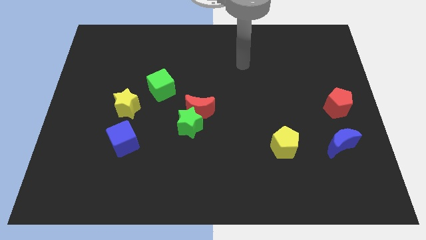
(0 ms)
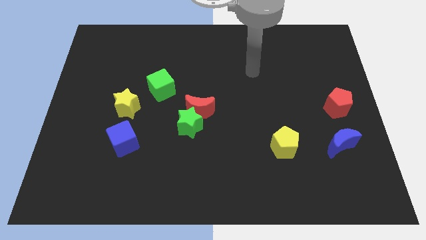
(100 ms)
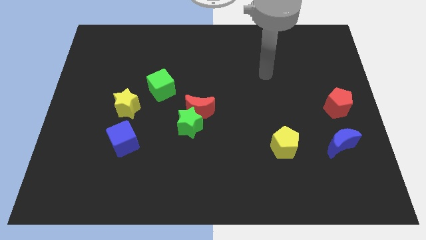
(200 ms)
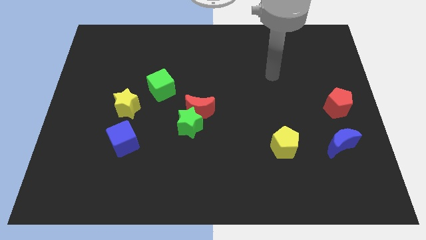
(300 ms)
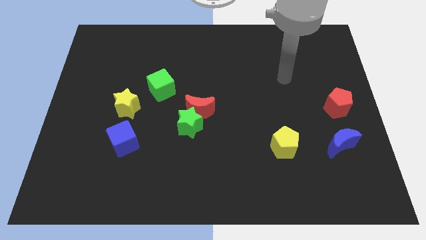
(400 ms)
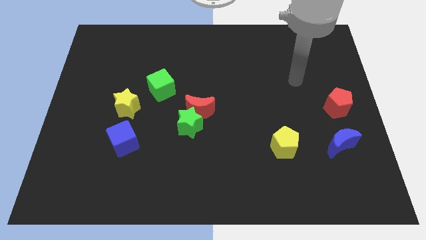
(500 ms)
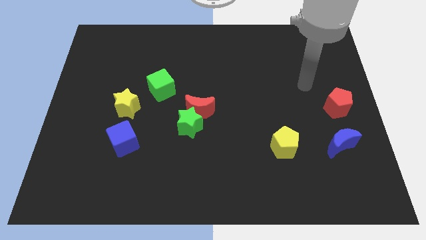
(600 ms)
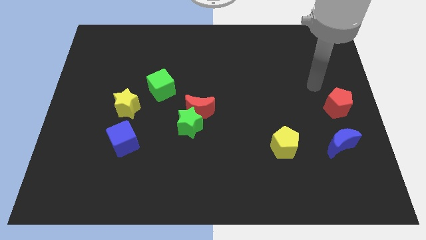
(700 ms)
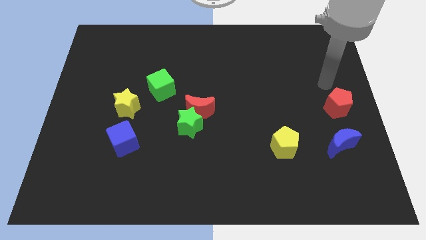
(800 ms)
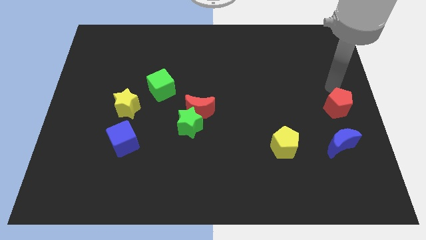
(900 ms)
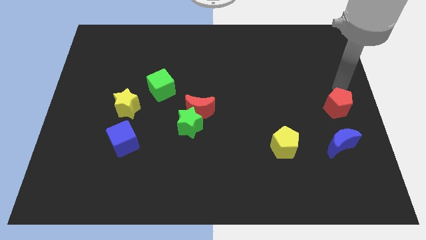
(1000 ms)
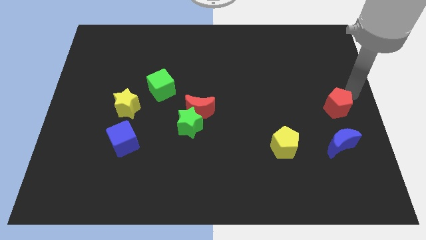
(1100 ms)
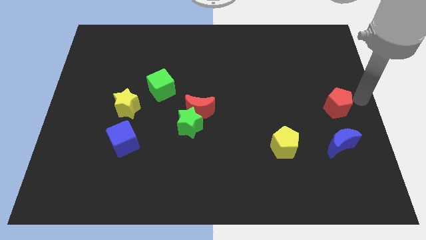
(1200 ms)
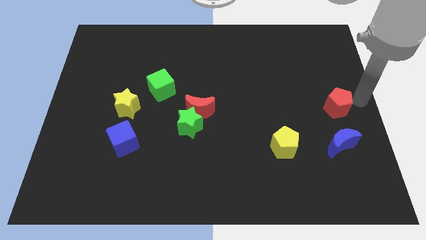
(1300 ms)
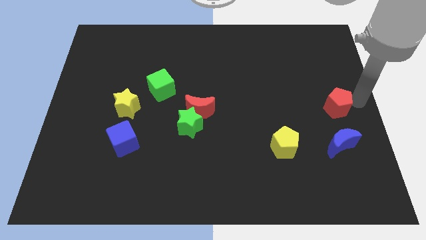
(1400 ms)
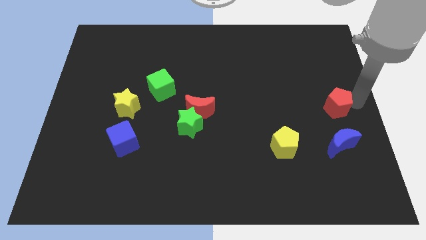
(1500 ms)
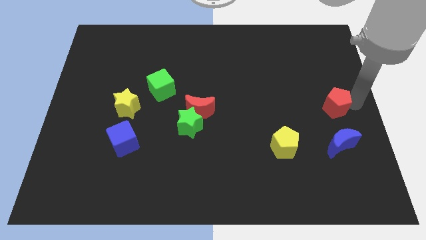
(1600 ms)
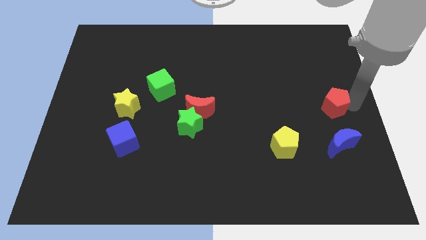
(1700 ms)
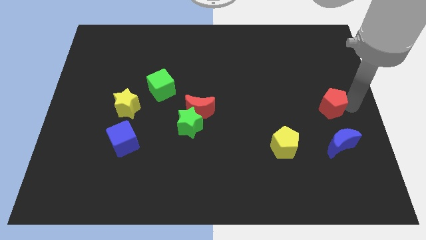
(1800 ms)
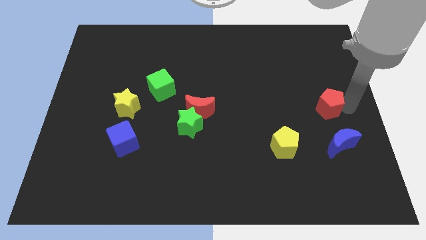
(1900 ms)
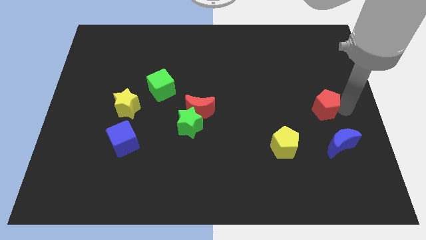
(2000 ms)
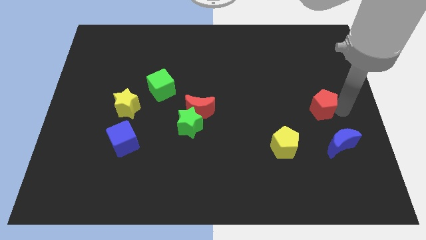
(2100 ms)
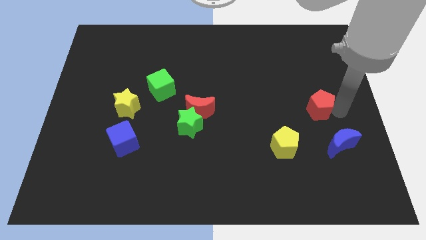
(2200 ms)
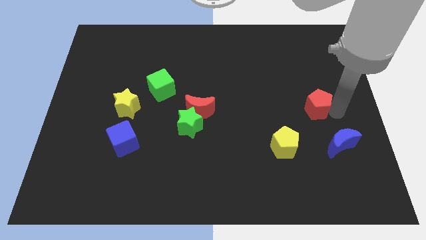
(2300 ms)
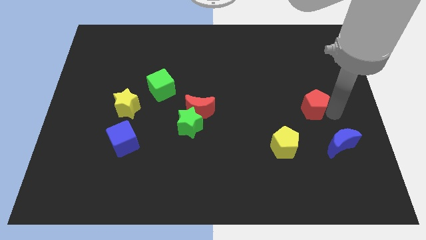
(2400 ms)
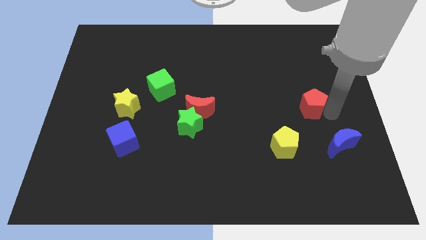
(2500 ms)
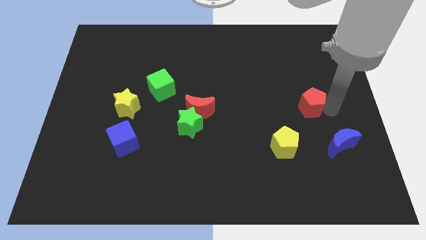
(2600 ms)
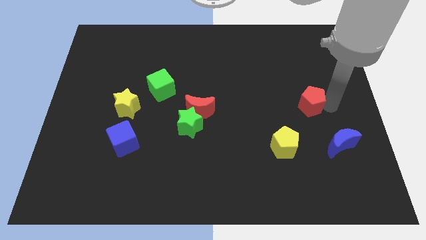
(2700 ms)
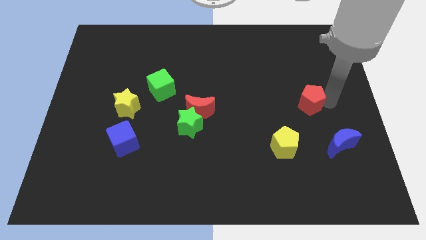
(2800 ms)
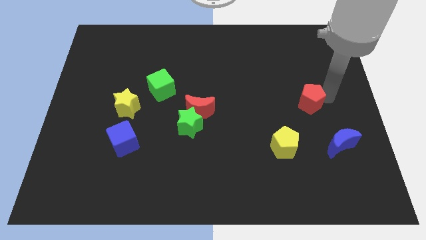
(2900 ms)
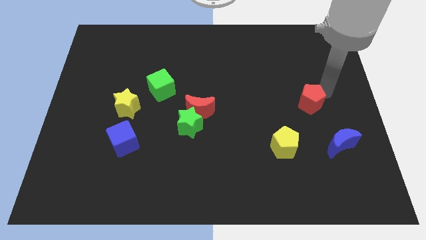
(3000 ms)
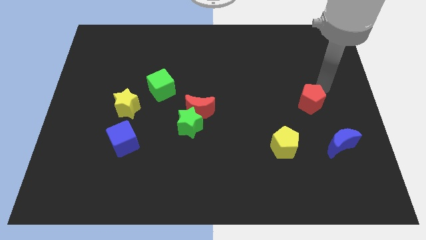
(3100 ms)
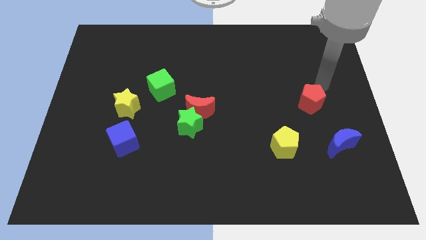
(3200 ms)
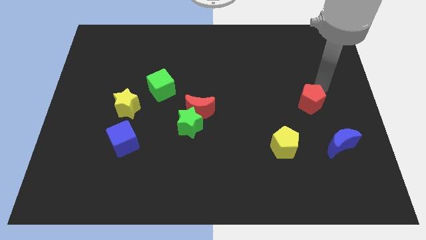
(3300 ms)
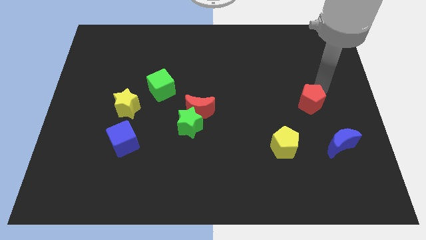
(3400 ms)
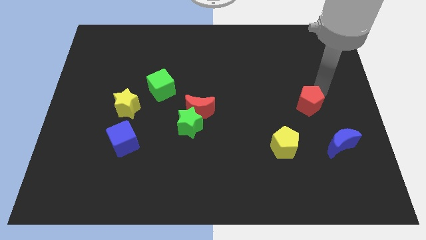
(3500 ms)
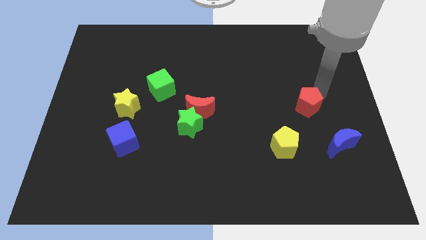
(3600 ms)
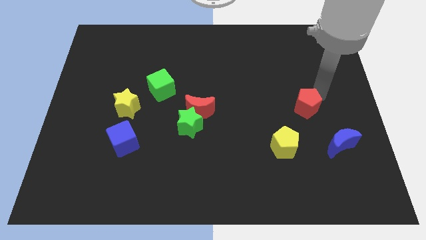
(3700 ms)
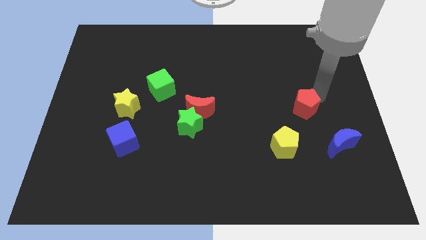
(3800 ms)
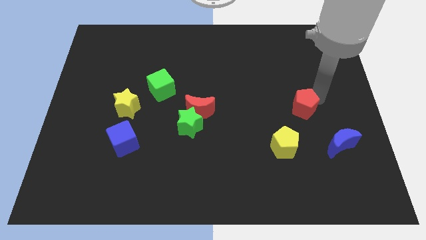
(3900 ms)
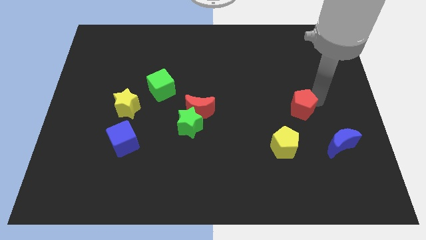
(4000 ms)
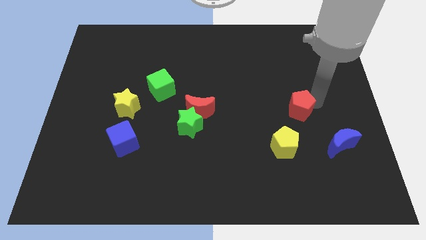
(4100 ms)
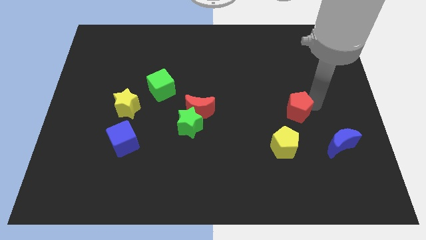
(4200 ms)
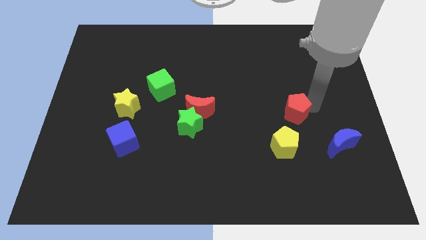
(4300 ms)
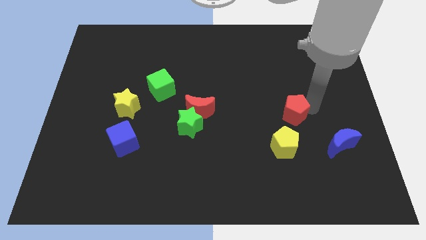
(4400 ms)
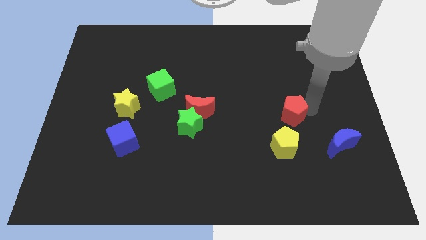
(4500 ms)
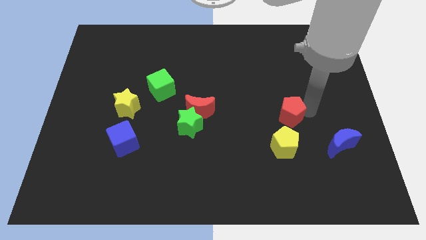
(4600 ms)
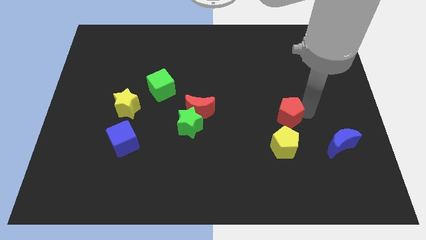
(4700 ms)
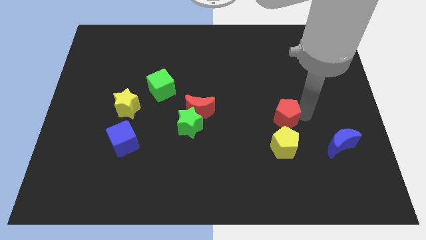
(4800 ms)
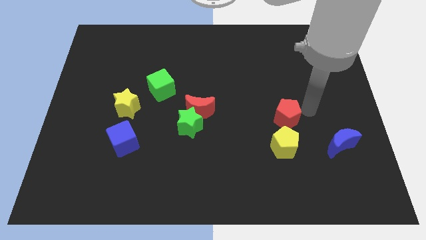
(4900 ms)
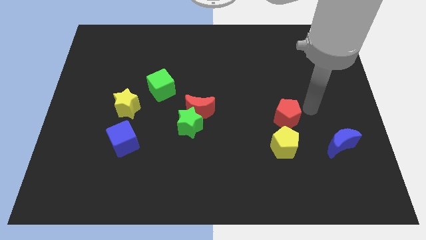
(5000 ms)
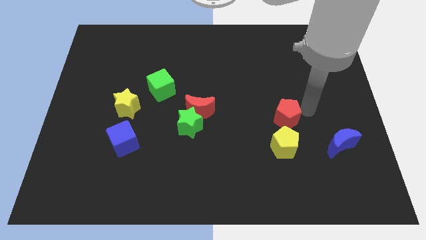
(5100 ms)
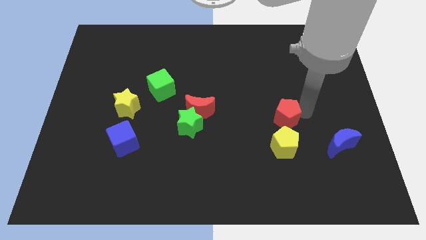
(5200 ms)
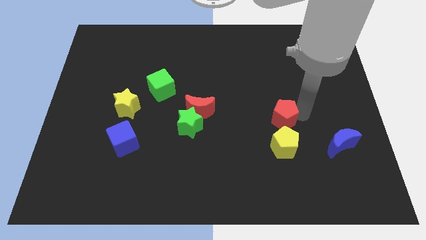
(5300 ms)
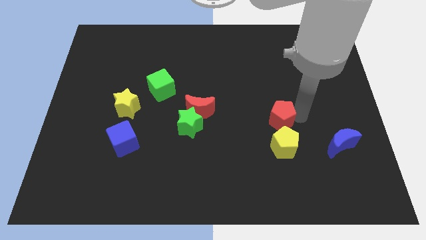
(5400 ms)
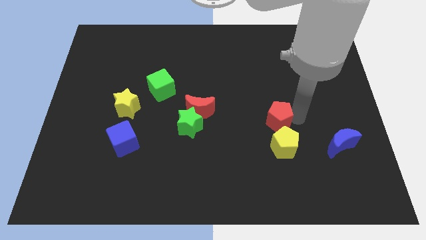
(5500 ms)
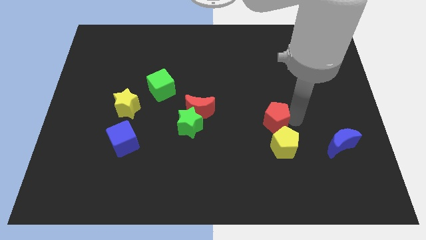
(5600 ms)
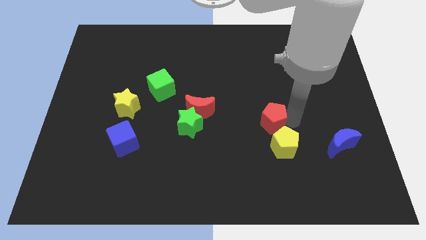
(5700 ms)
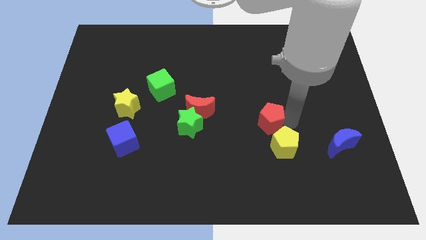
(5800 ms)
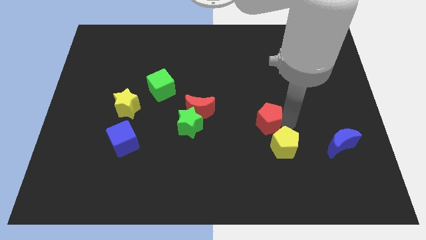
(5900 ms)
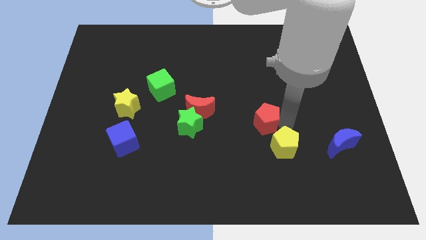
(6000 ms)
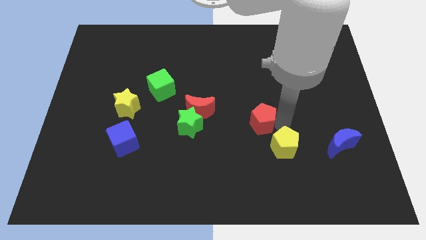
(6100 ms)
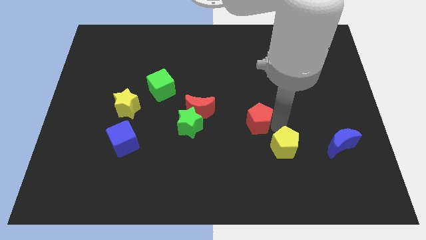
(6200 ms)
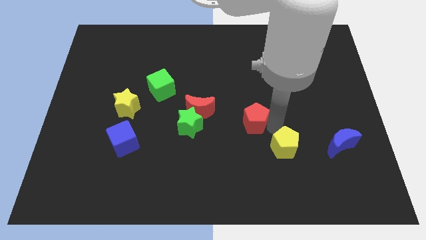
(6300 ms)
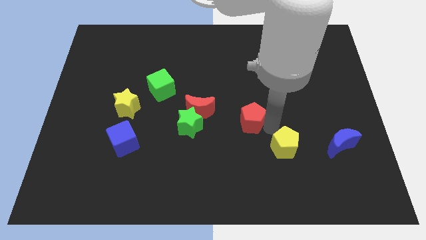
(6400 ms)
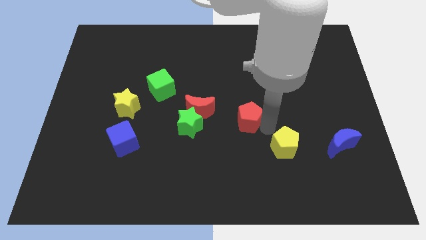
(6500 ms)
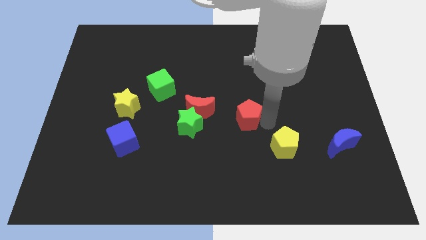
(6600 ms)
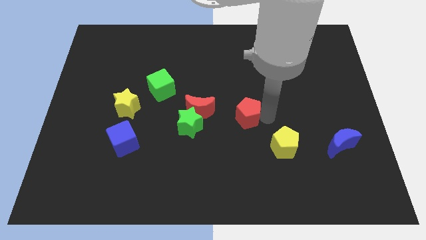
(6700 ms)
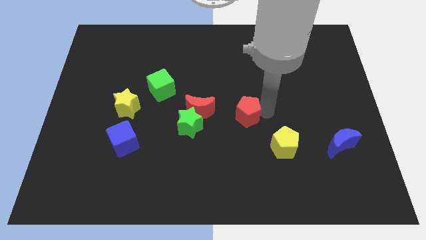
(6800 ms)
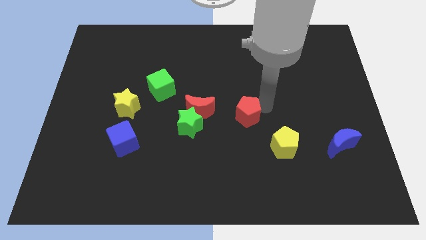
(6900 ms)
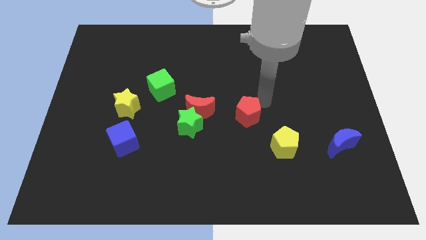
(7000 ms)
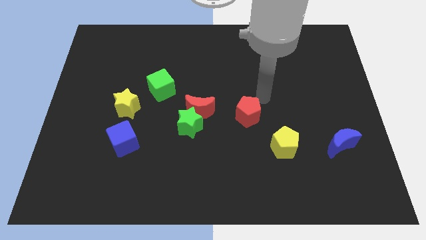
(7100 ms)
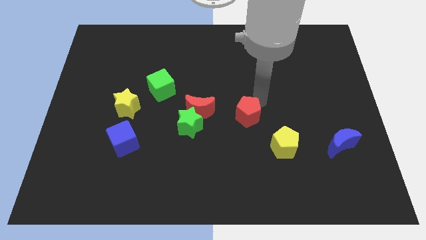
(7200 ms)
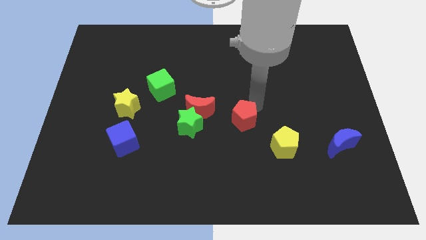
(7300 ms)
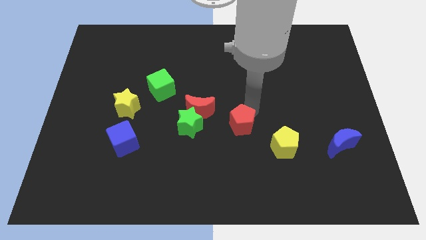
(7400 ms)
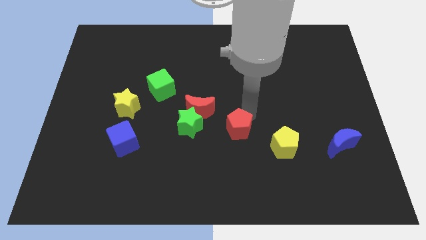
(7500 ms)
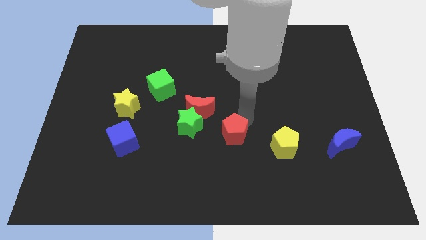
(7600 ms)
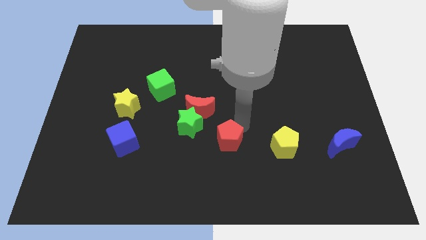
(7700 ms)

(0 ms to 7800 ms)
slide the red pentagon diagonally down and to the right of the green star

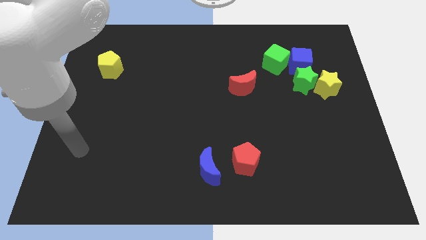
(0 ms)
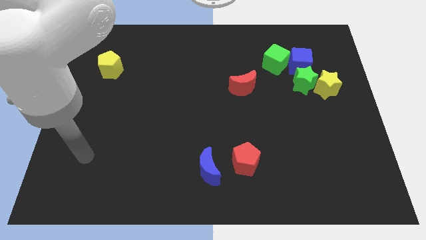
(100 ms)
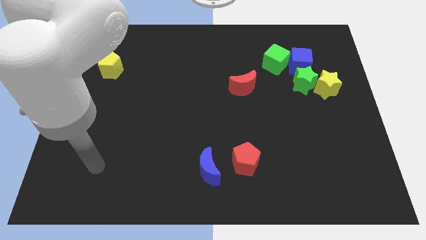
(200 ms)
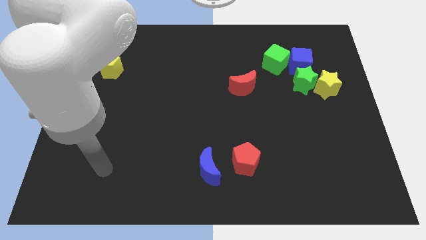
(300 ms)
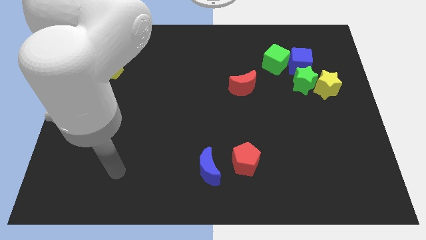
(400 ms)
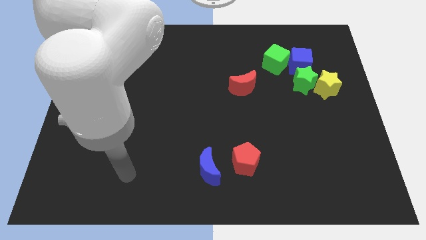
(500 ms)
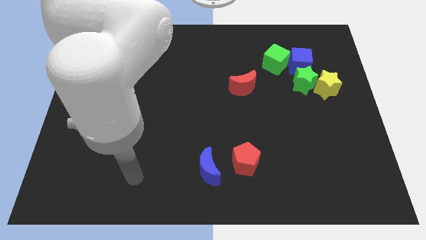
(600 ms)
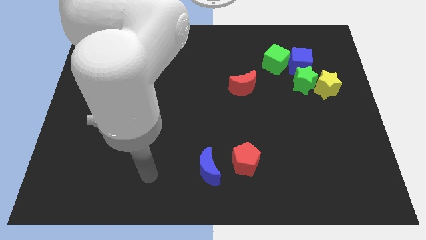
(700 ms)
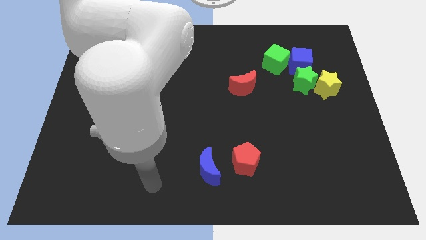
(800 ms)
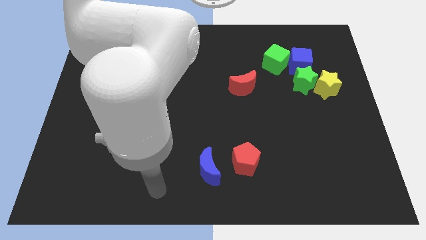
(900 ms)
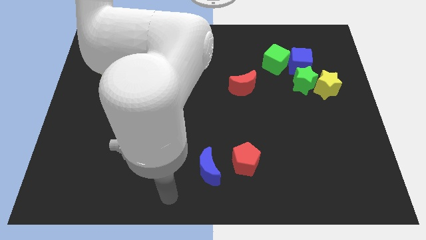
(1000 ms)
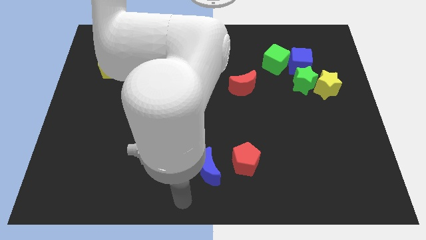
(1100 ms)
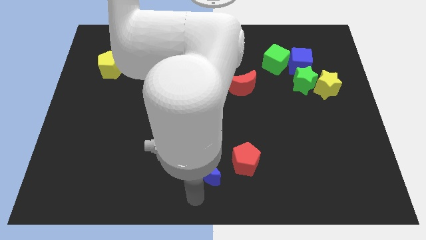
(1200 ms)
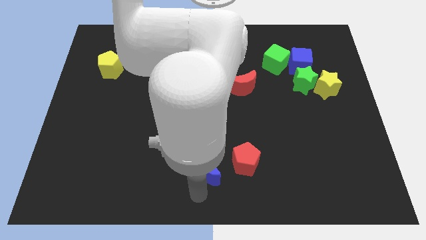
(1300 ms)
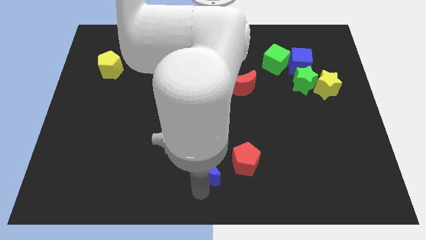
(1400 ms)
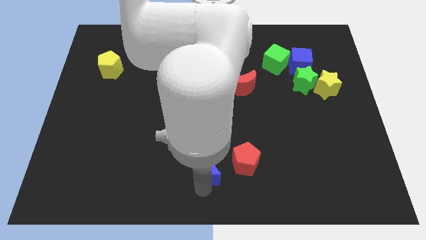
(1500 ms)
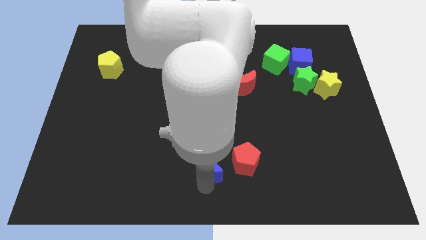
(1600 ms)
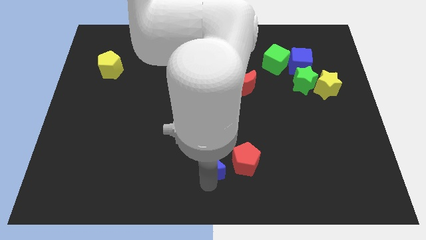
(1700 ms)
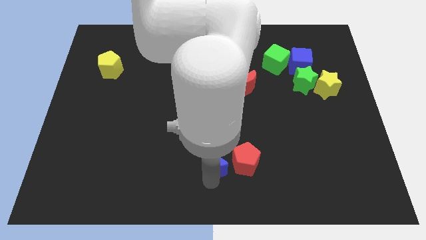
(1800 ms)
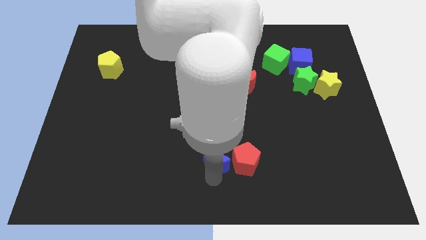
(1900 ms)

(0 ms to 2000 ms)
slide the blue moon to the top left of the red pentagon
